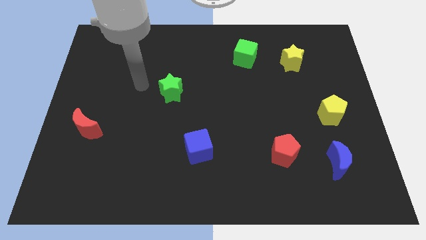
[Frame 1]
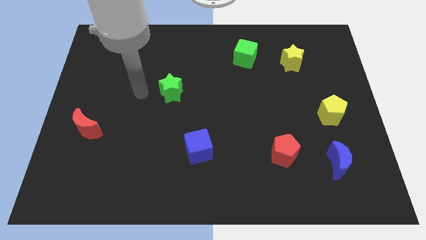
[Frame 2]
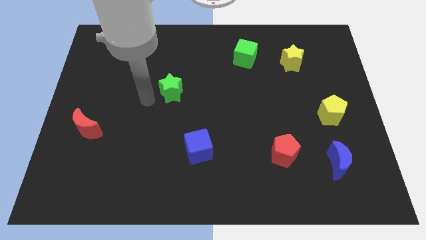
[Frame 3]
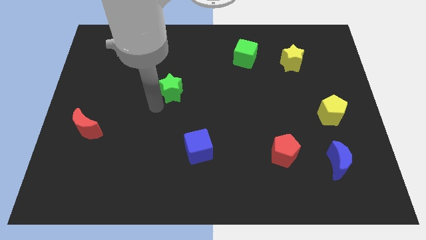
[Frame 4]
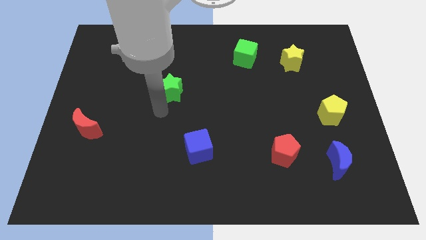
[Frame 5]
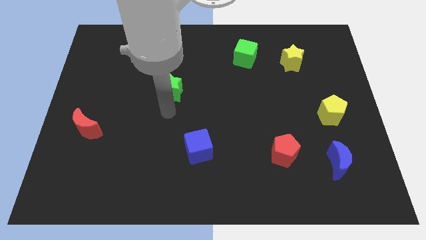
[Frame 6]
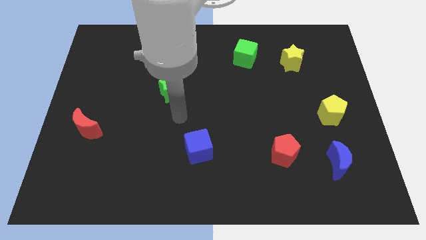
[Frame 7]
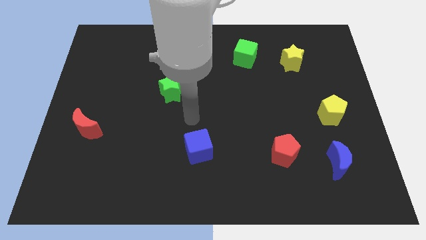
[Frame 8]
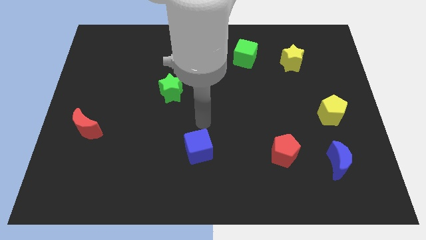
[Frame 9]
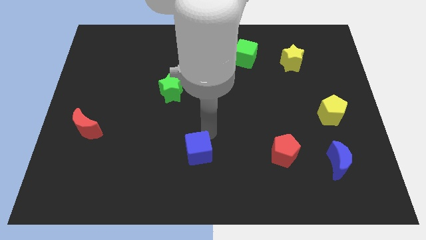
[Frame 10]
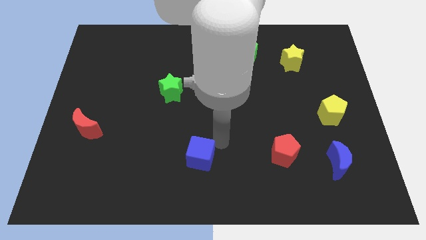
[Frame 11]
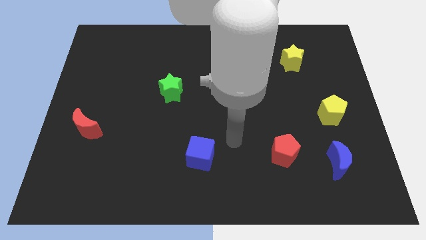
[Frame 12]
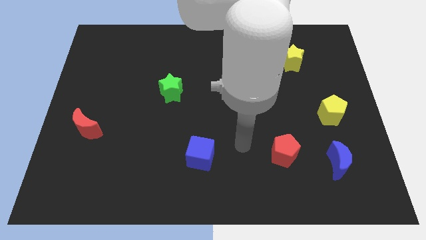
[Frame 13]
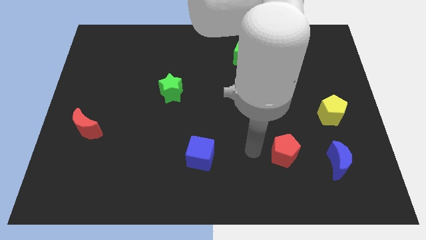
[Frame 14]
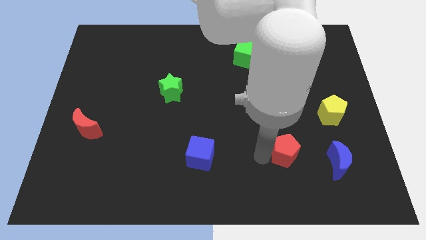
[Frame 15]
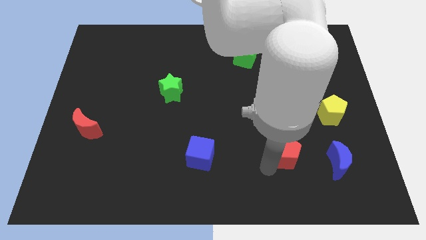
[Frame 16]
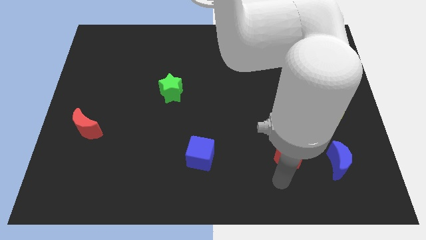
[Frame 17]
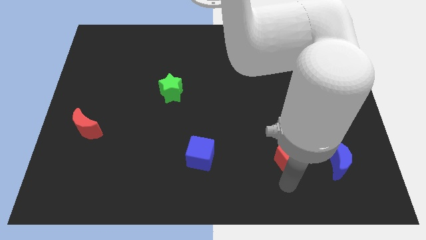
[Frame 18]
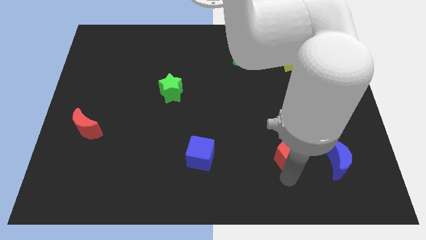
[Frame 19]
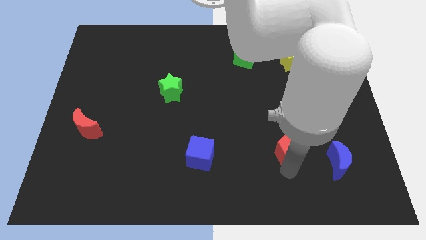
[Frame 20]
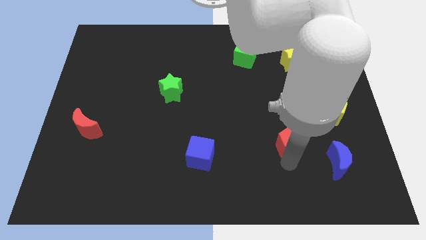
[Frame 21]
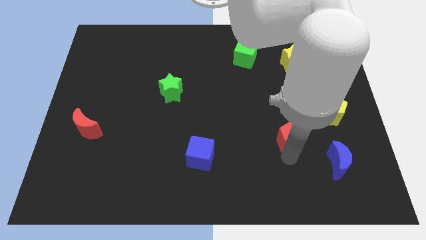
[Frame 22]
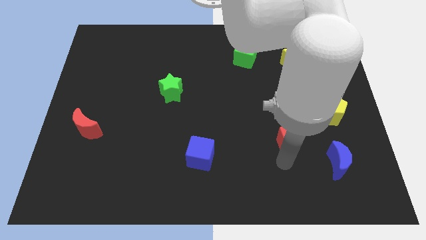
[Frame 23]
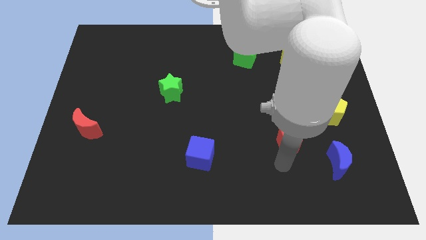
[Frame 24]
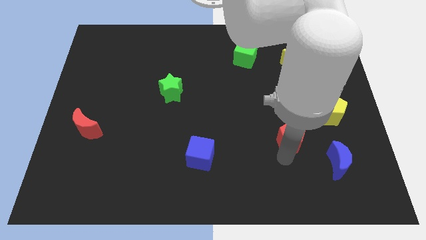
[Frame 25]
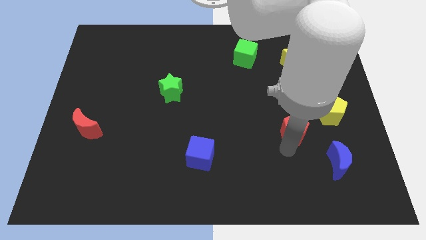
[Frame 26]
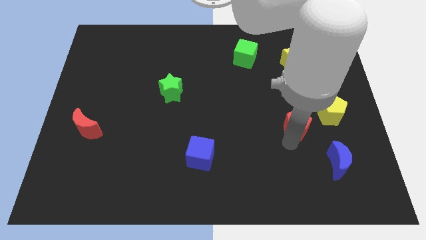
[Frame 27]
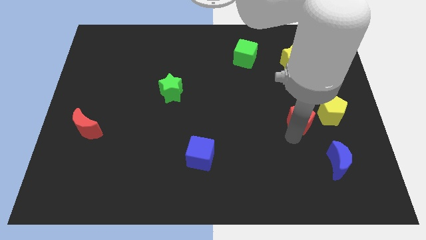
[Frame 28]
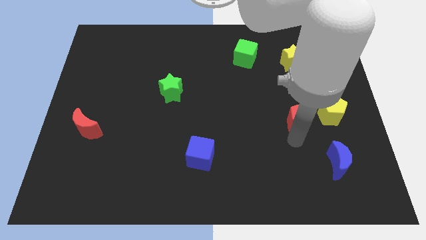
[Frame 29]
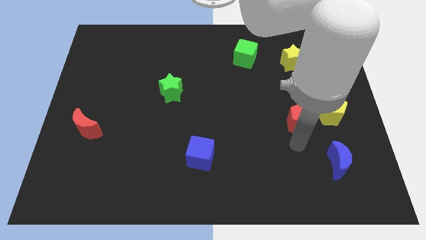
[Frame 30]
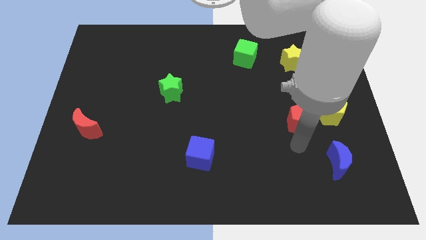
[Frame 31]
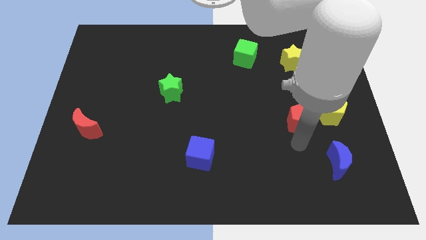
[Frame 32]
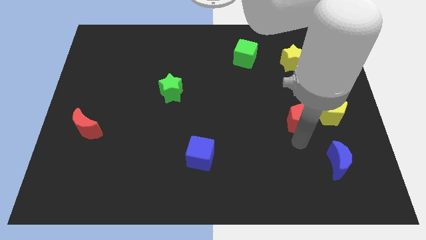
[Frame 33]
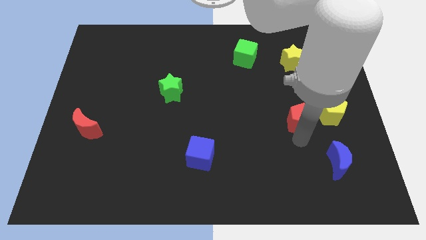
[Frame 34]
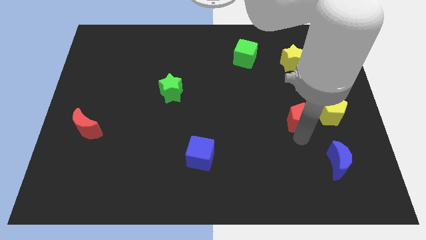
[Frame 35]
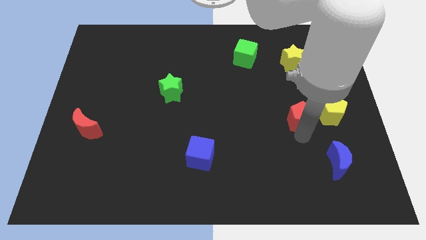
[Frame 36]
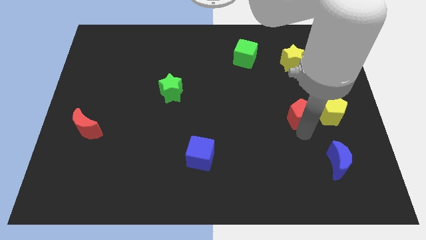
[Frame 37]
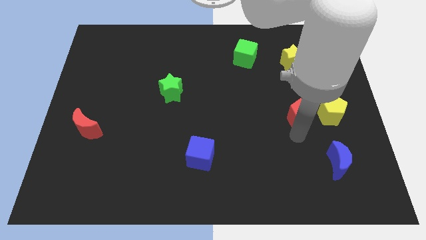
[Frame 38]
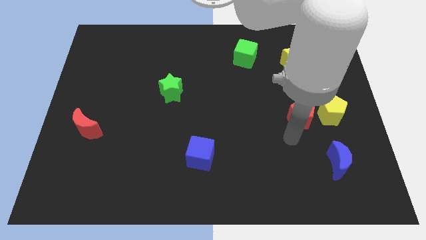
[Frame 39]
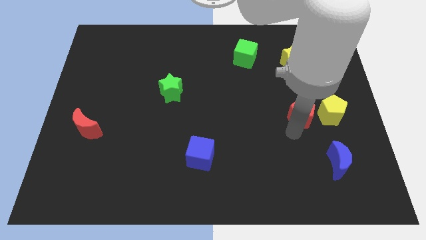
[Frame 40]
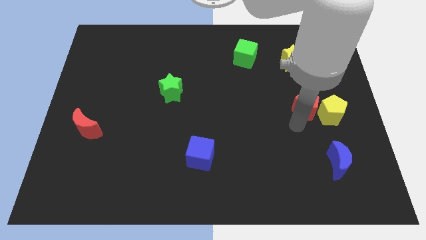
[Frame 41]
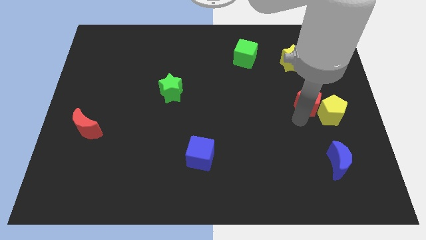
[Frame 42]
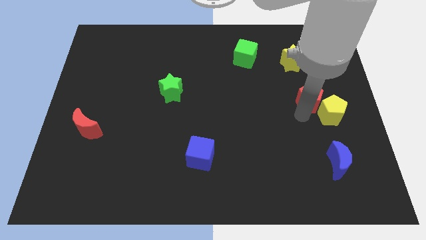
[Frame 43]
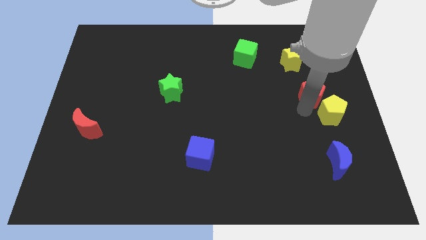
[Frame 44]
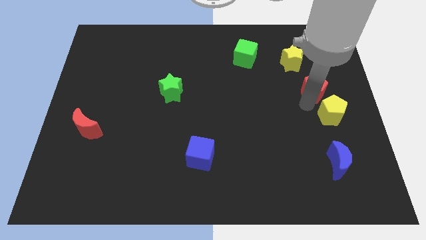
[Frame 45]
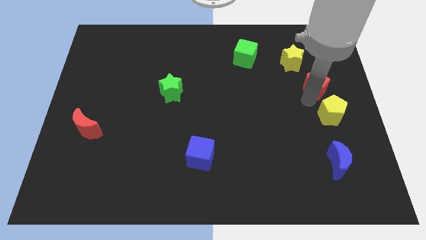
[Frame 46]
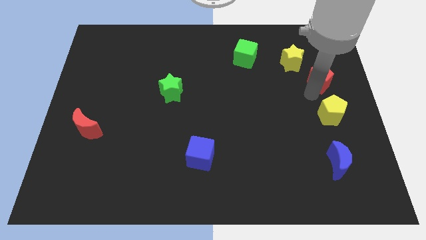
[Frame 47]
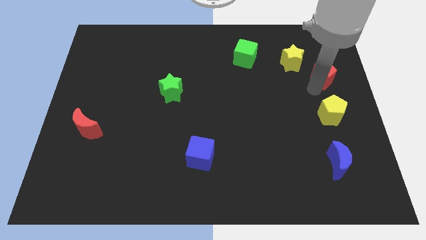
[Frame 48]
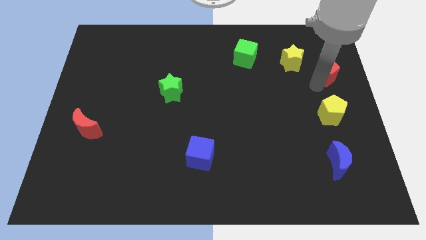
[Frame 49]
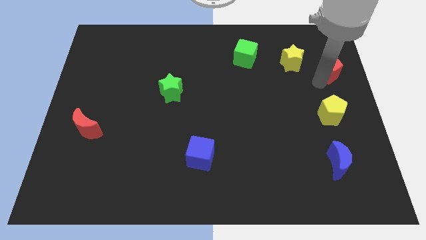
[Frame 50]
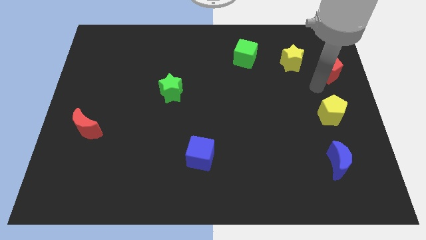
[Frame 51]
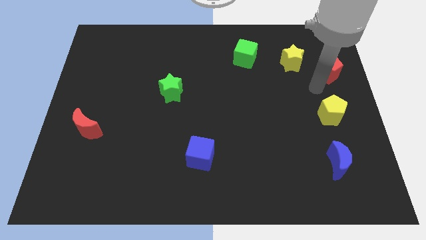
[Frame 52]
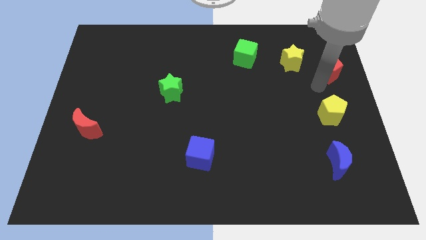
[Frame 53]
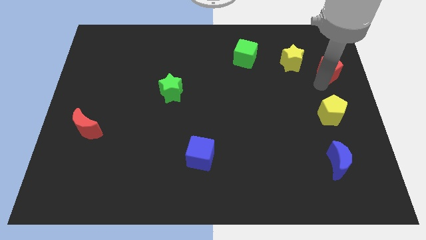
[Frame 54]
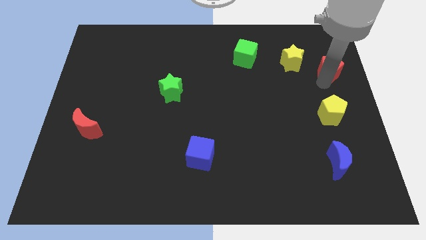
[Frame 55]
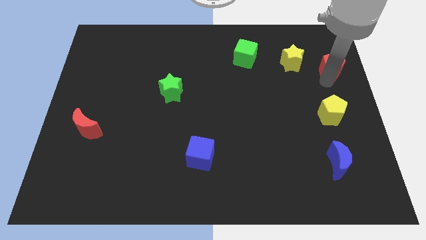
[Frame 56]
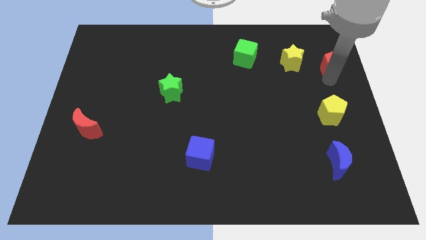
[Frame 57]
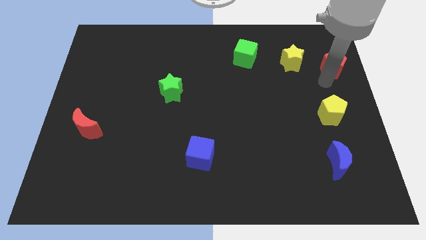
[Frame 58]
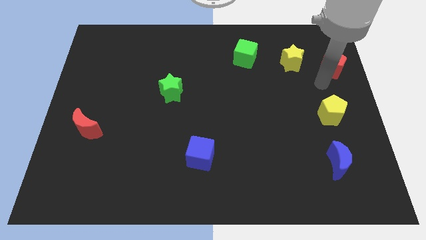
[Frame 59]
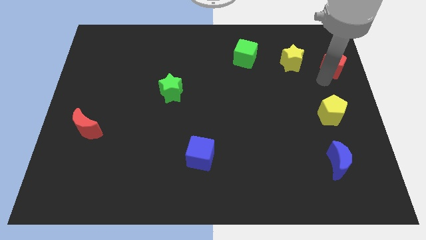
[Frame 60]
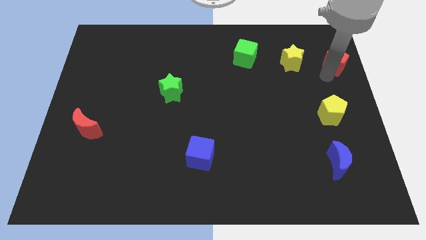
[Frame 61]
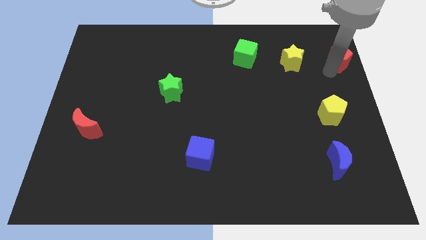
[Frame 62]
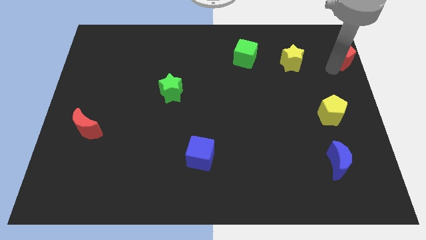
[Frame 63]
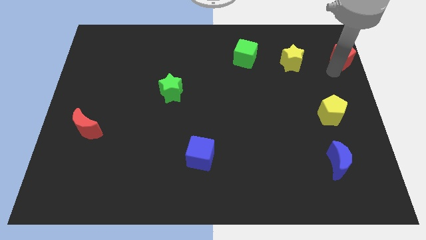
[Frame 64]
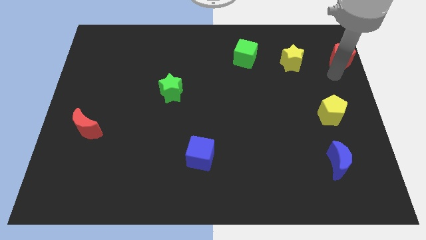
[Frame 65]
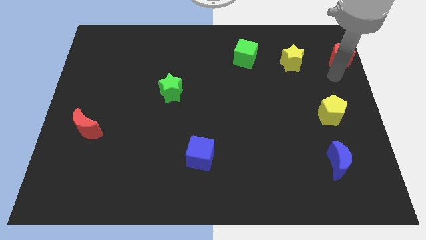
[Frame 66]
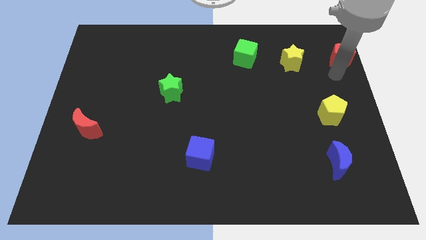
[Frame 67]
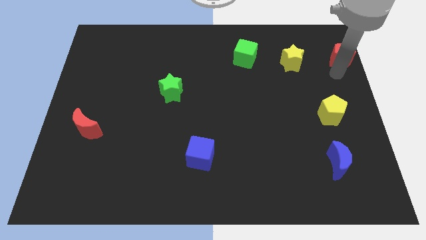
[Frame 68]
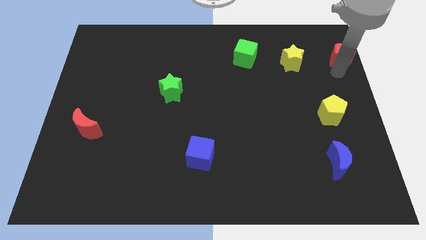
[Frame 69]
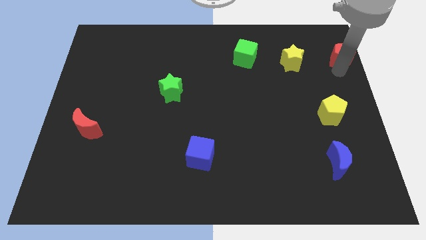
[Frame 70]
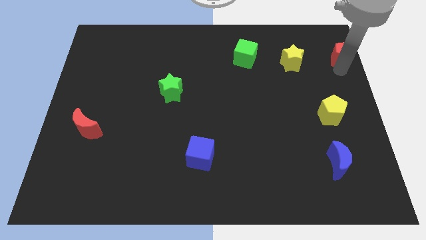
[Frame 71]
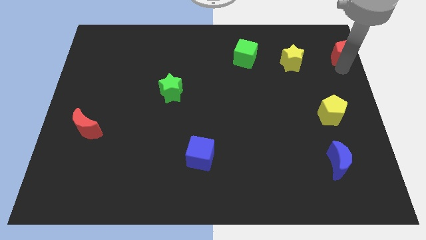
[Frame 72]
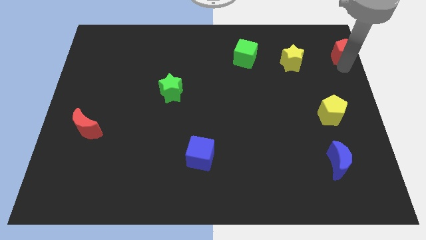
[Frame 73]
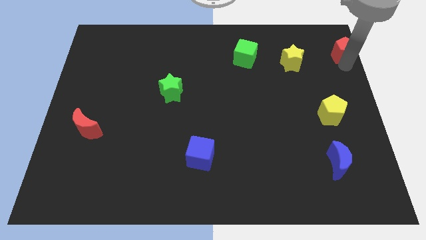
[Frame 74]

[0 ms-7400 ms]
push the red pentagon to the top right of the board
